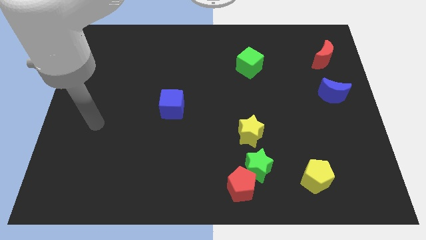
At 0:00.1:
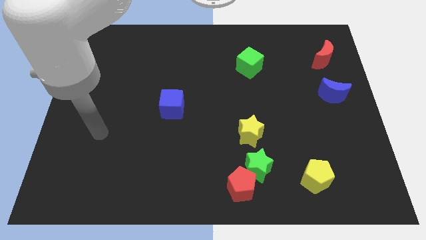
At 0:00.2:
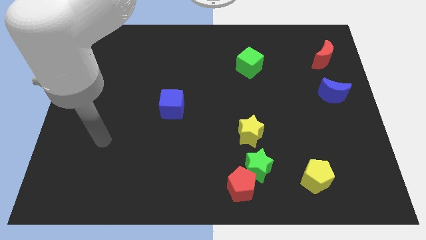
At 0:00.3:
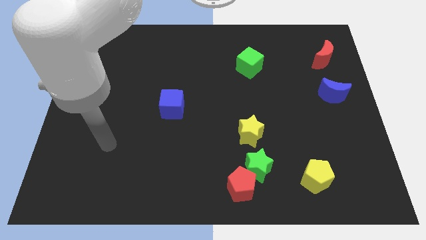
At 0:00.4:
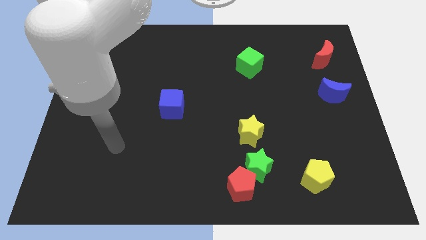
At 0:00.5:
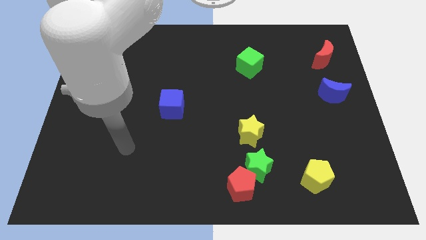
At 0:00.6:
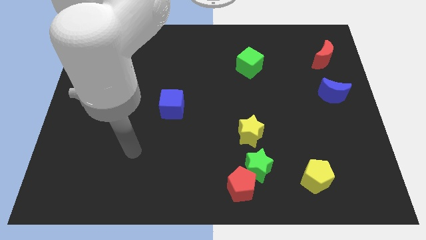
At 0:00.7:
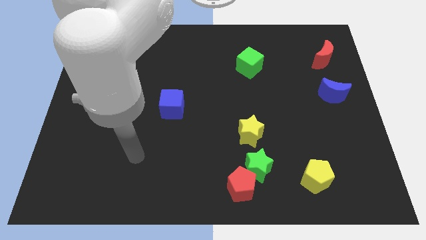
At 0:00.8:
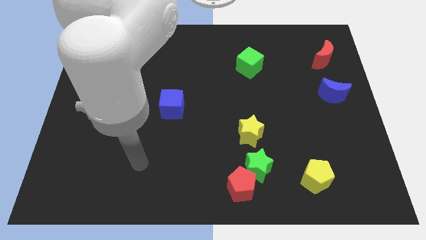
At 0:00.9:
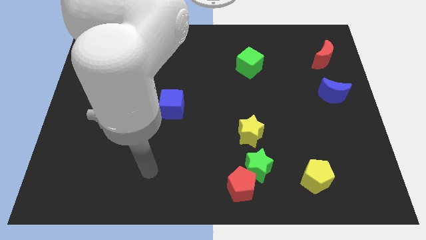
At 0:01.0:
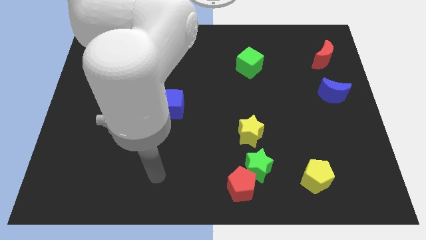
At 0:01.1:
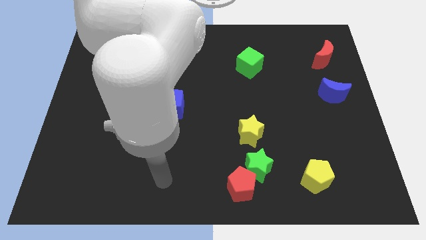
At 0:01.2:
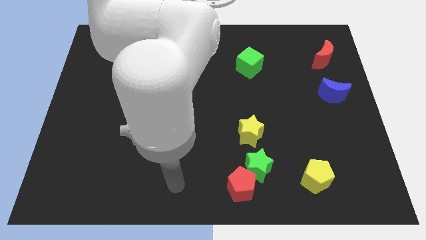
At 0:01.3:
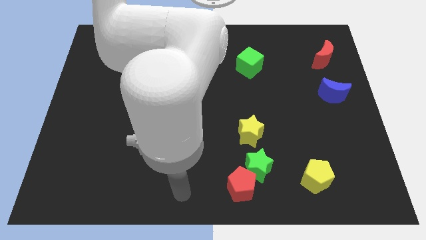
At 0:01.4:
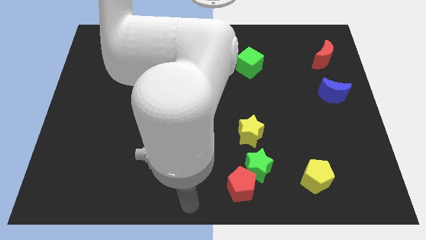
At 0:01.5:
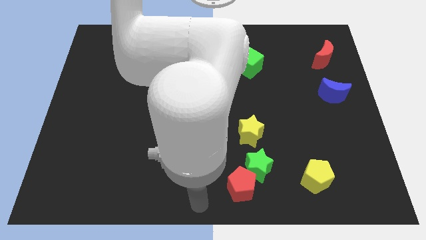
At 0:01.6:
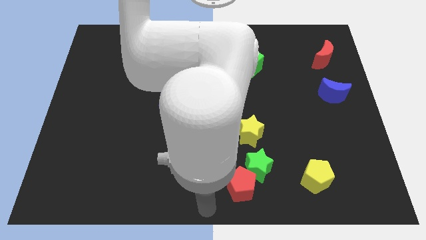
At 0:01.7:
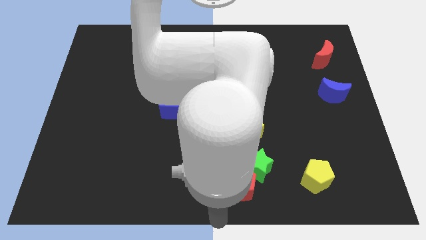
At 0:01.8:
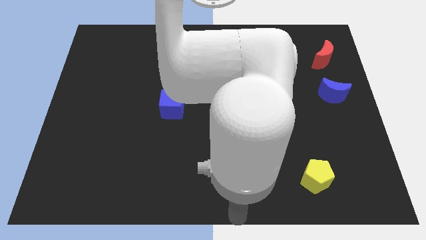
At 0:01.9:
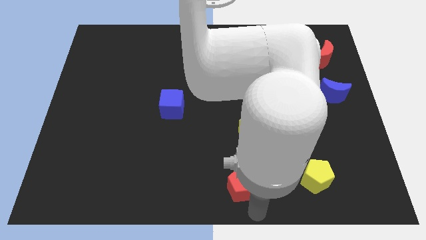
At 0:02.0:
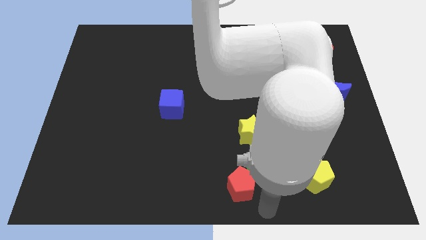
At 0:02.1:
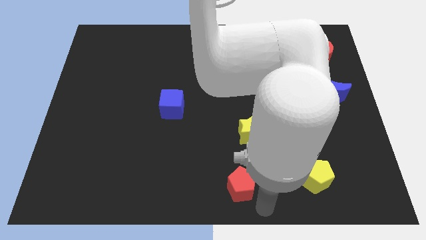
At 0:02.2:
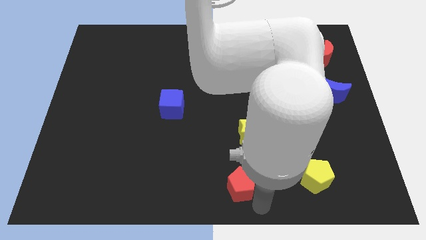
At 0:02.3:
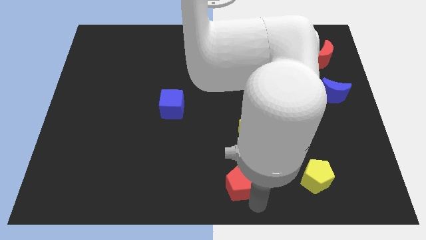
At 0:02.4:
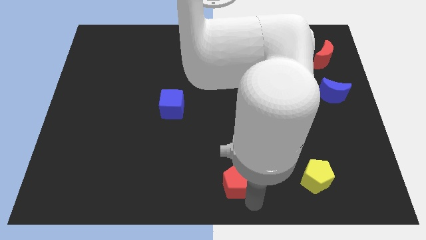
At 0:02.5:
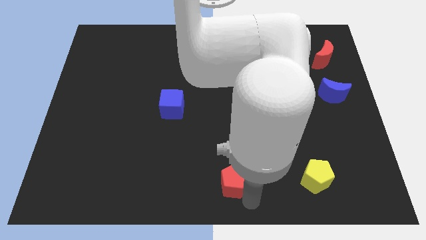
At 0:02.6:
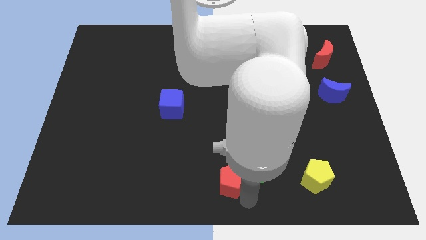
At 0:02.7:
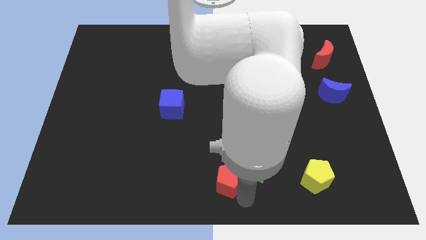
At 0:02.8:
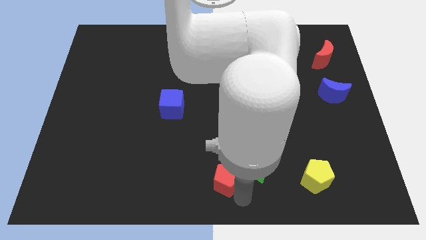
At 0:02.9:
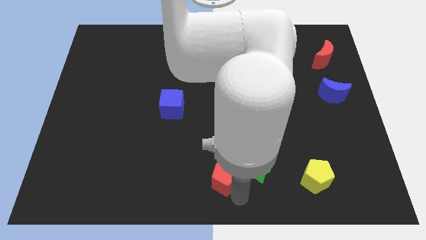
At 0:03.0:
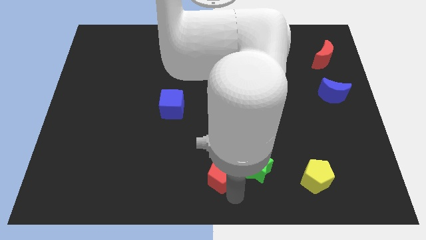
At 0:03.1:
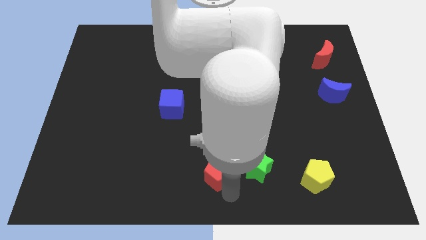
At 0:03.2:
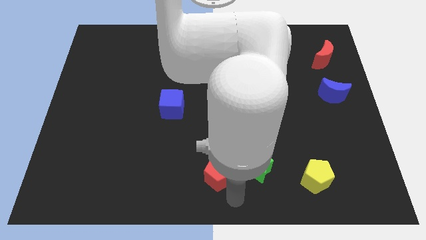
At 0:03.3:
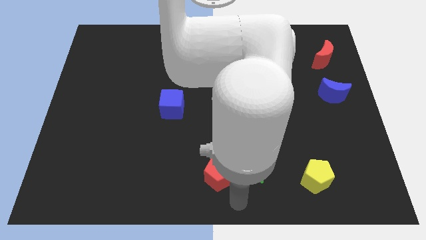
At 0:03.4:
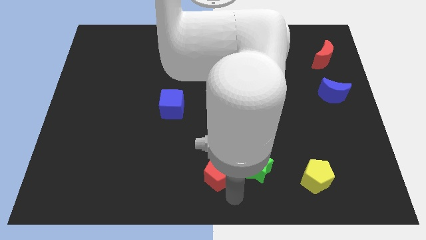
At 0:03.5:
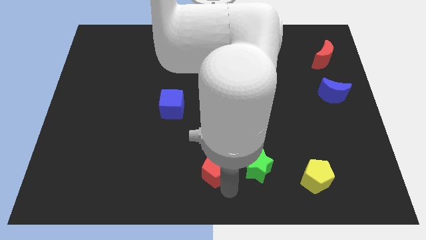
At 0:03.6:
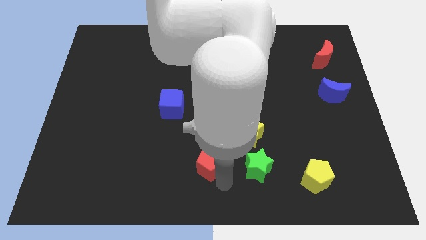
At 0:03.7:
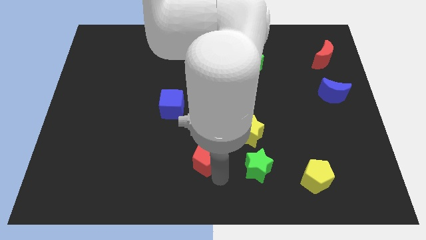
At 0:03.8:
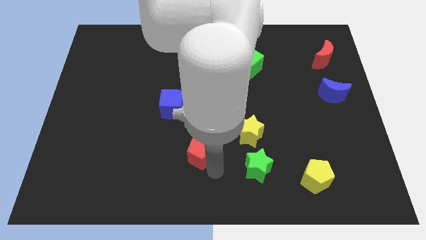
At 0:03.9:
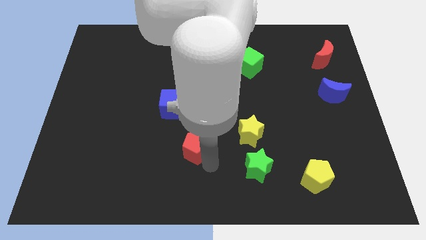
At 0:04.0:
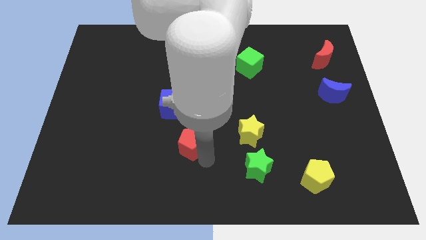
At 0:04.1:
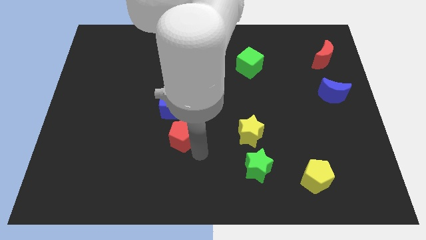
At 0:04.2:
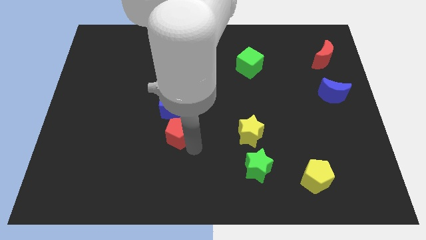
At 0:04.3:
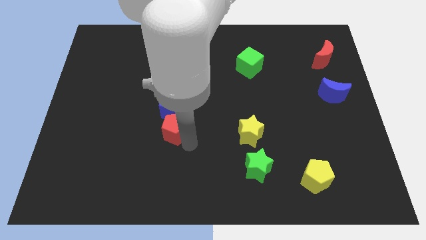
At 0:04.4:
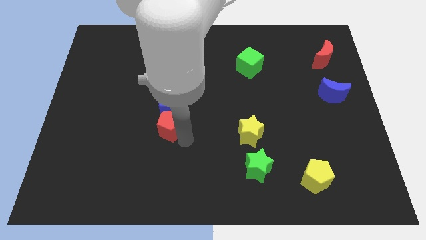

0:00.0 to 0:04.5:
slide the red pentagon diagonally up and left

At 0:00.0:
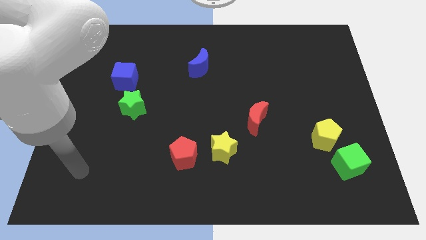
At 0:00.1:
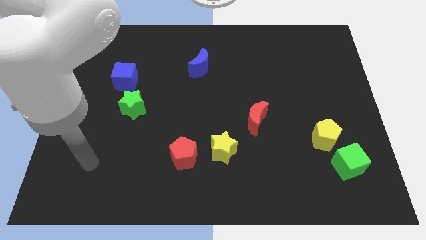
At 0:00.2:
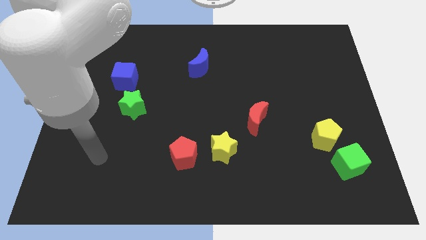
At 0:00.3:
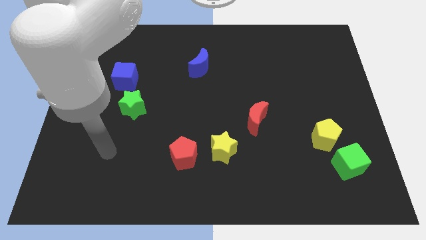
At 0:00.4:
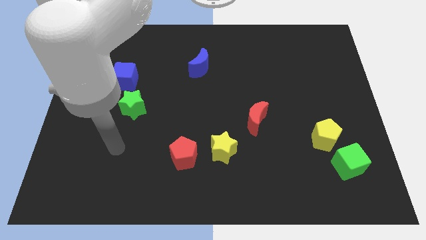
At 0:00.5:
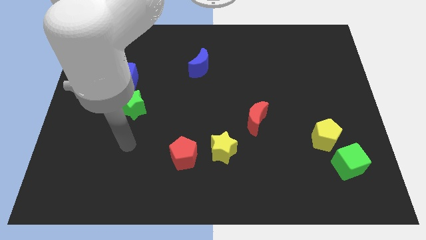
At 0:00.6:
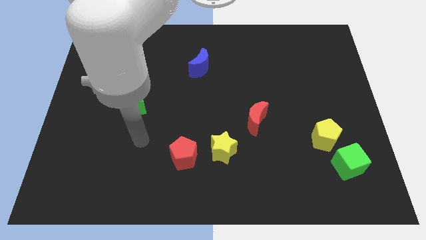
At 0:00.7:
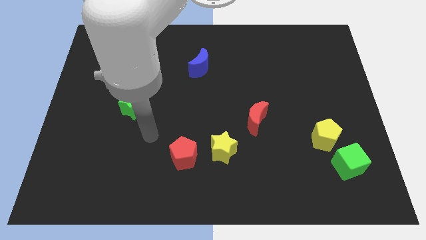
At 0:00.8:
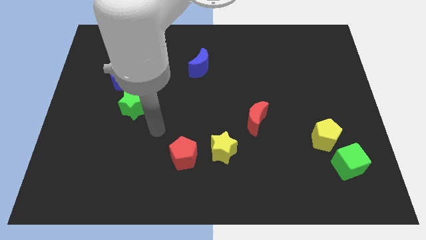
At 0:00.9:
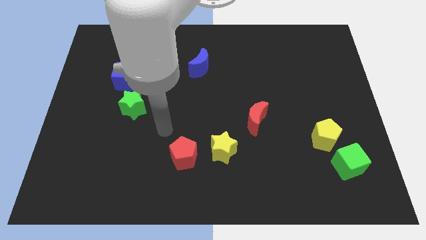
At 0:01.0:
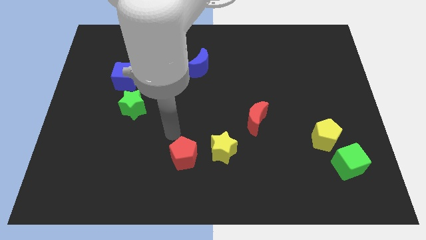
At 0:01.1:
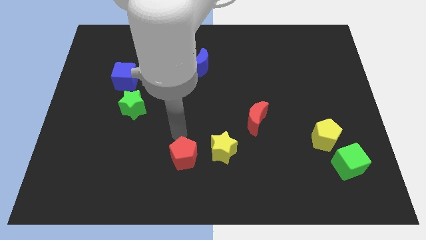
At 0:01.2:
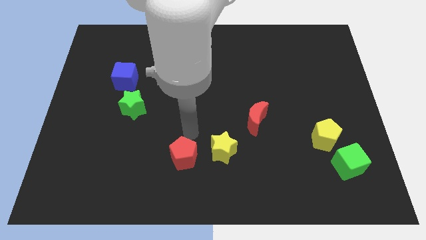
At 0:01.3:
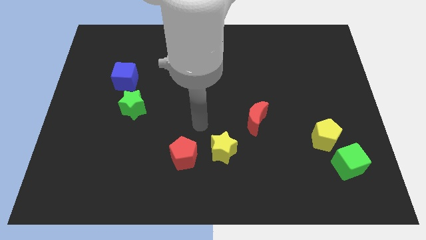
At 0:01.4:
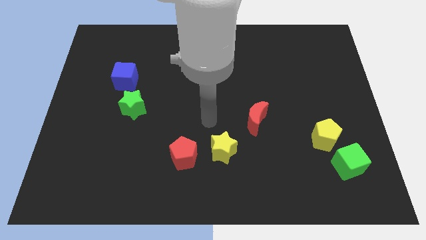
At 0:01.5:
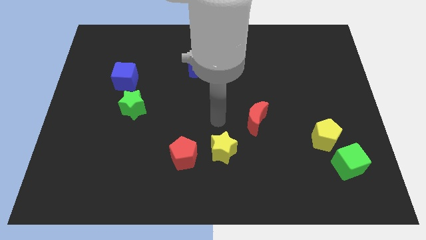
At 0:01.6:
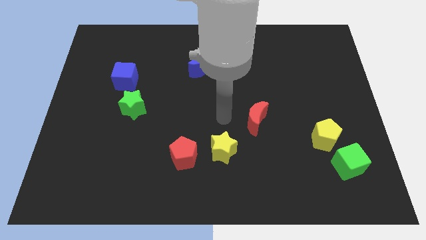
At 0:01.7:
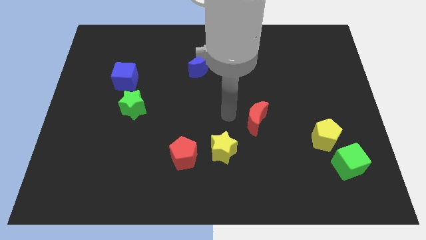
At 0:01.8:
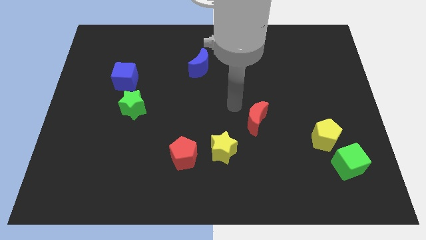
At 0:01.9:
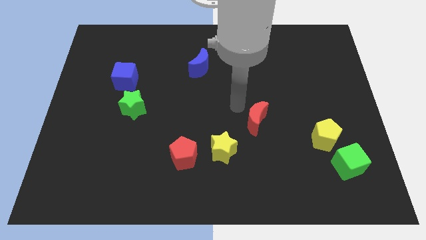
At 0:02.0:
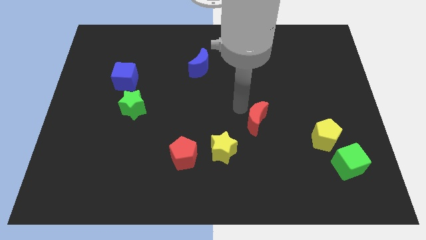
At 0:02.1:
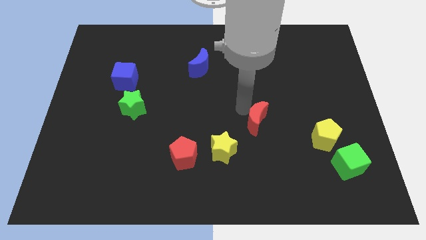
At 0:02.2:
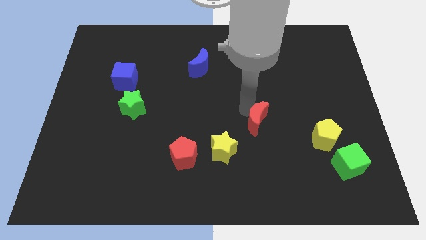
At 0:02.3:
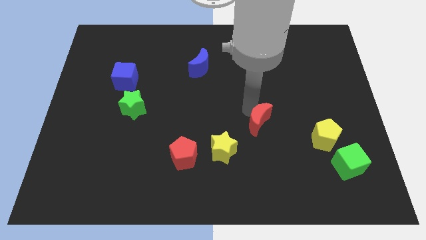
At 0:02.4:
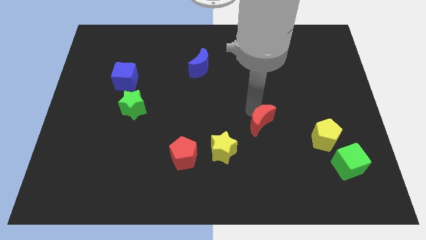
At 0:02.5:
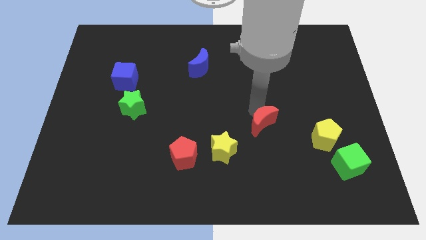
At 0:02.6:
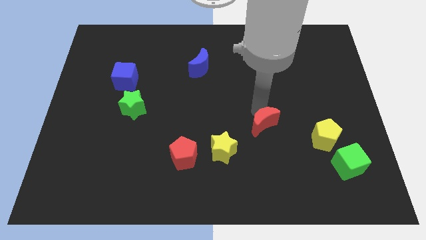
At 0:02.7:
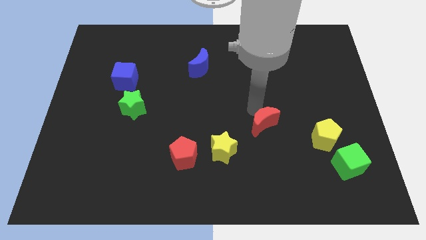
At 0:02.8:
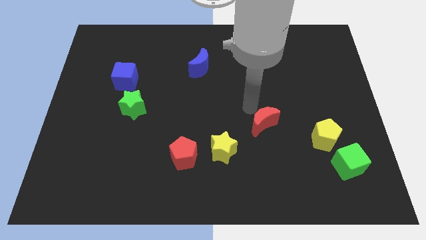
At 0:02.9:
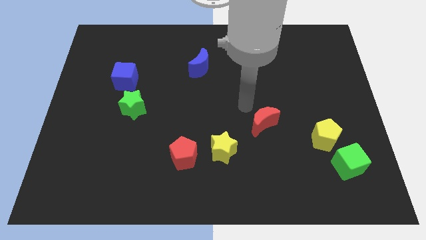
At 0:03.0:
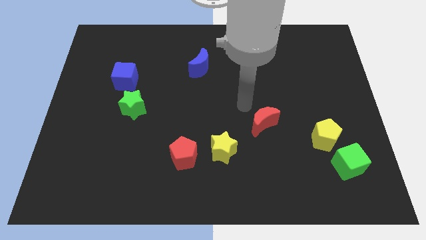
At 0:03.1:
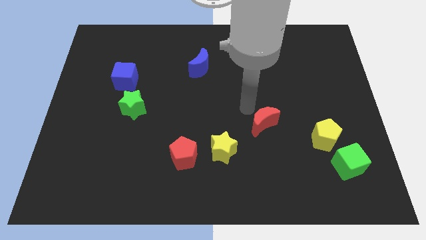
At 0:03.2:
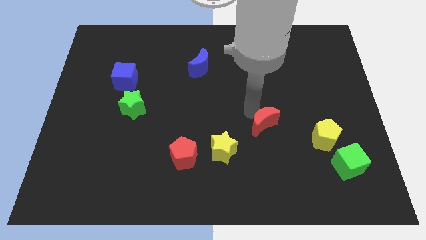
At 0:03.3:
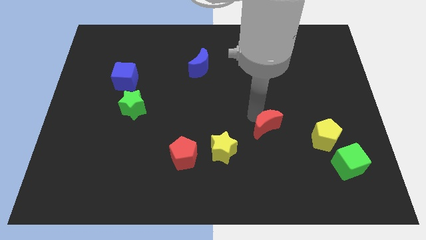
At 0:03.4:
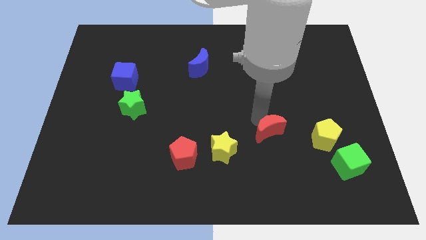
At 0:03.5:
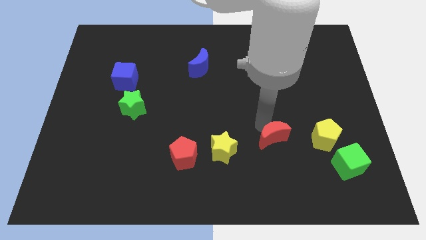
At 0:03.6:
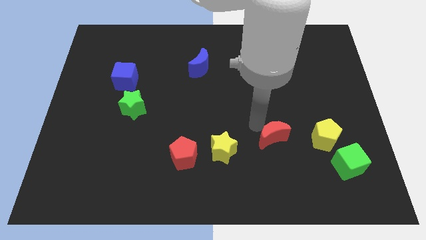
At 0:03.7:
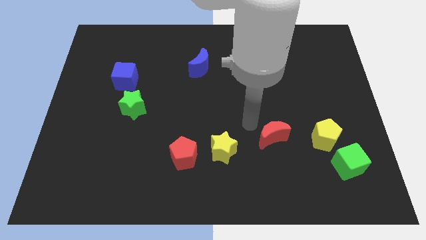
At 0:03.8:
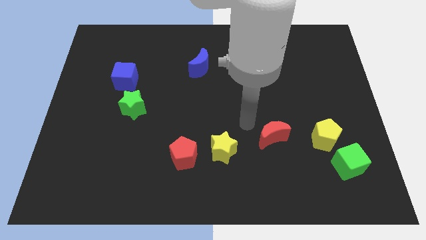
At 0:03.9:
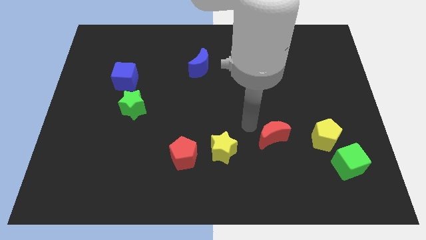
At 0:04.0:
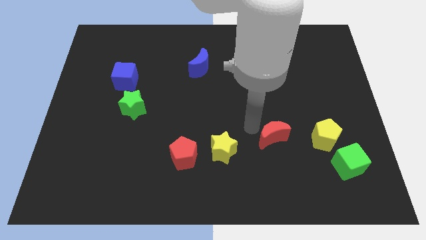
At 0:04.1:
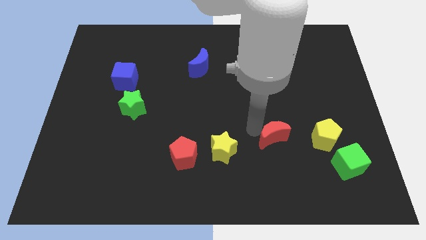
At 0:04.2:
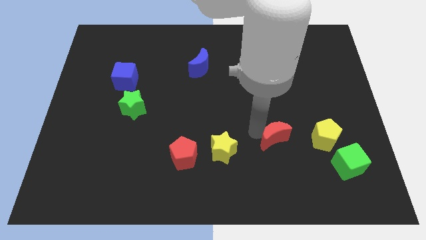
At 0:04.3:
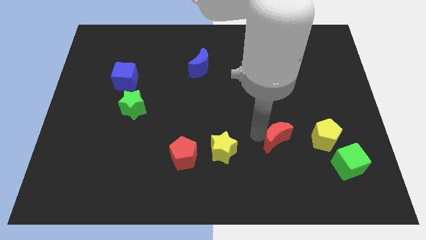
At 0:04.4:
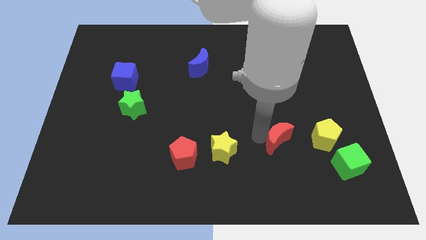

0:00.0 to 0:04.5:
slide the red moon downwards and right diagonally a little
